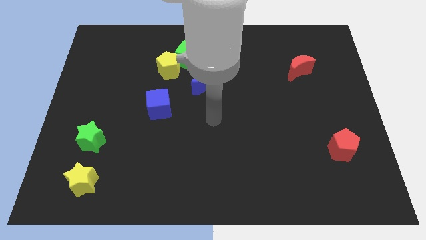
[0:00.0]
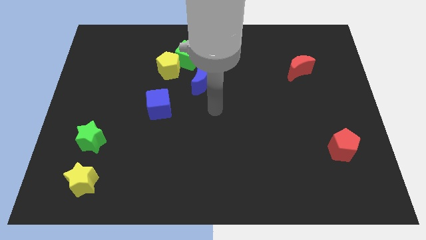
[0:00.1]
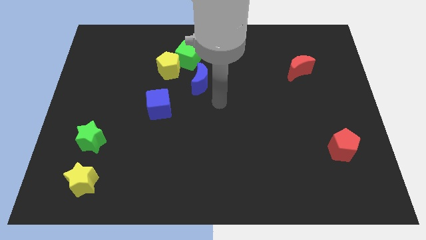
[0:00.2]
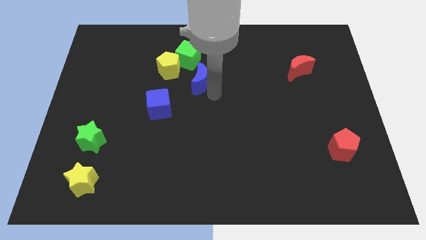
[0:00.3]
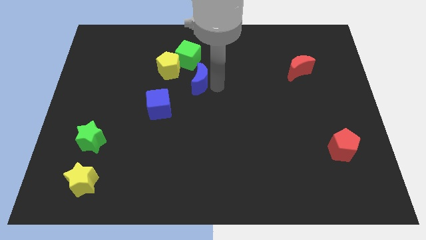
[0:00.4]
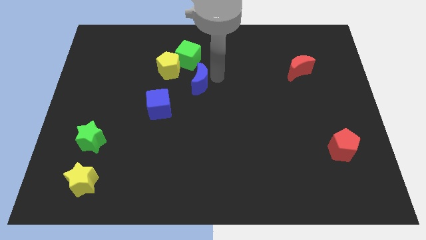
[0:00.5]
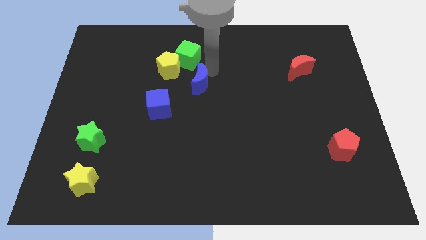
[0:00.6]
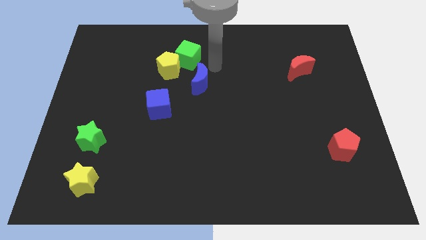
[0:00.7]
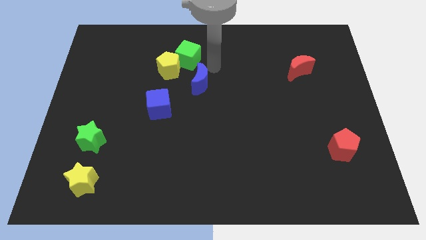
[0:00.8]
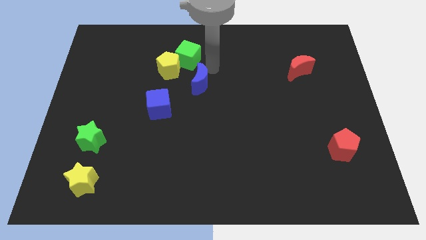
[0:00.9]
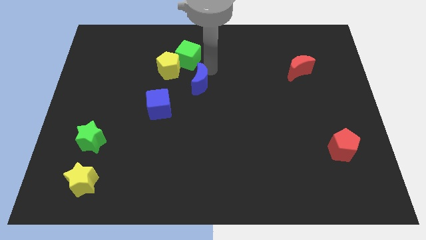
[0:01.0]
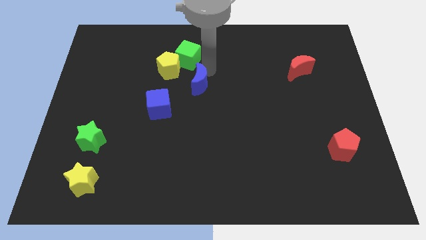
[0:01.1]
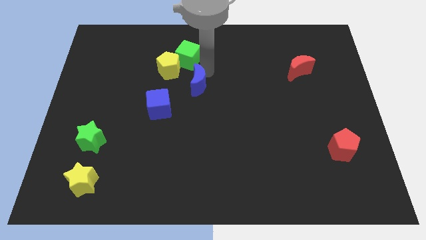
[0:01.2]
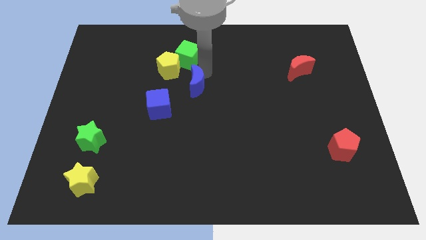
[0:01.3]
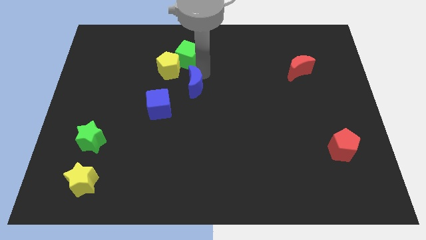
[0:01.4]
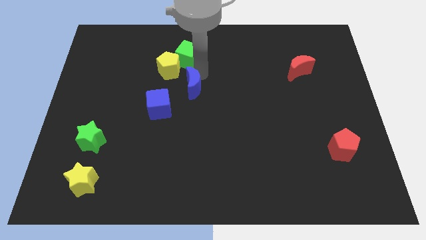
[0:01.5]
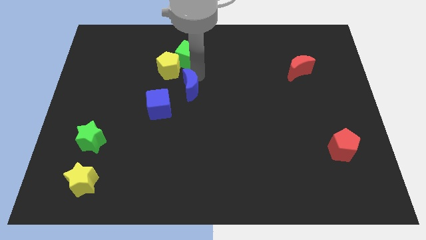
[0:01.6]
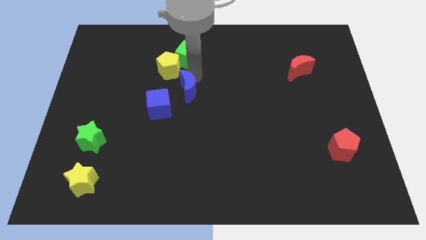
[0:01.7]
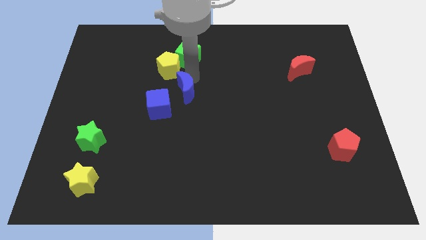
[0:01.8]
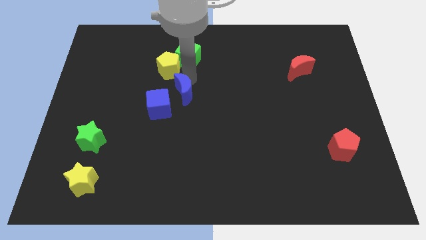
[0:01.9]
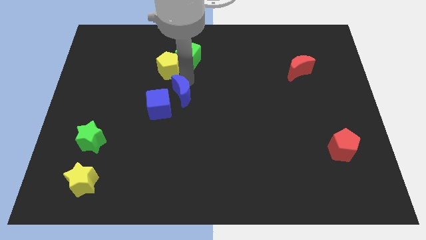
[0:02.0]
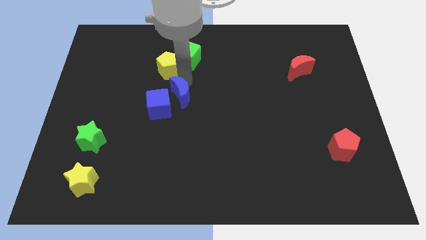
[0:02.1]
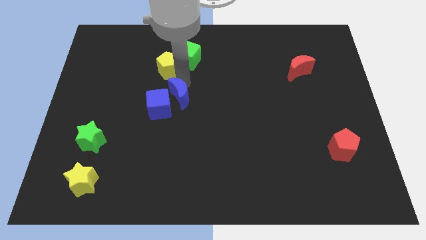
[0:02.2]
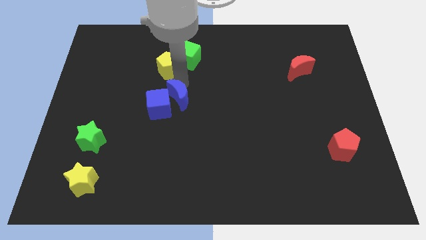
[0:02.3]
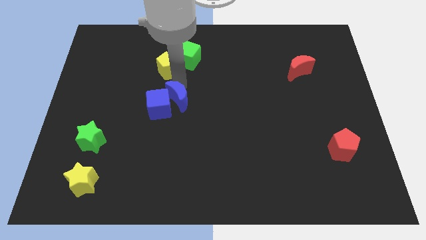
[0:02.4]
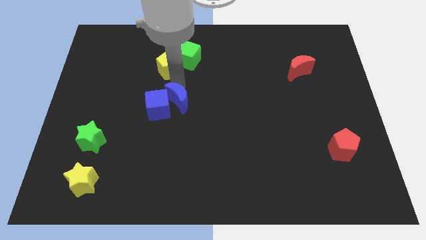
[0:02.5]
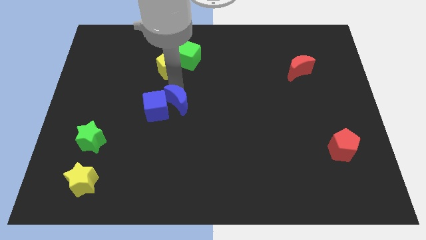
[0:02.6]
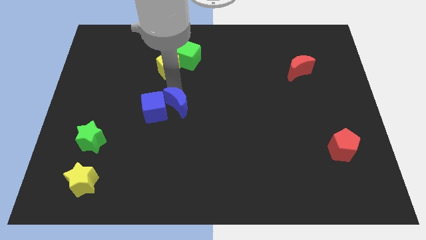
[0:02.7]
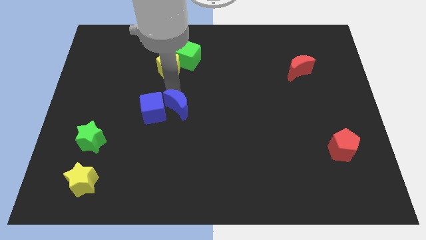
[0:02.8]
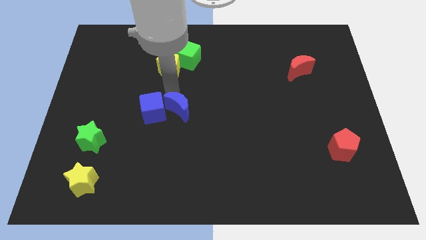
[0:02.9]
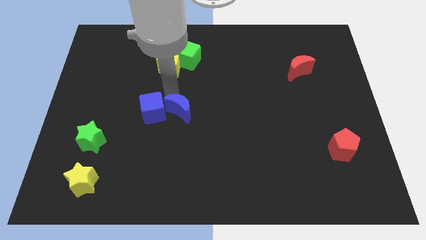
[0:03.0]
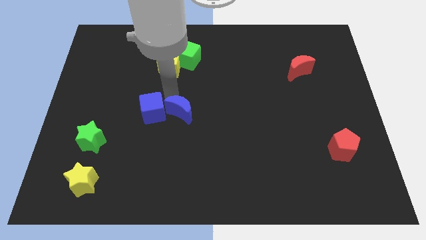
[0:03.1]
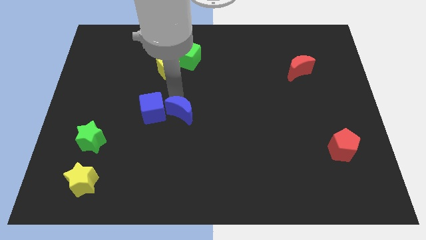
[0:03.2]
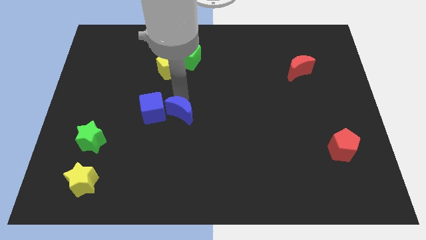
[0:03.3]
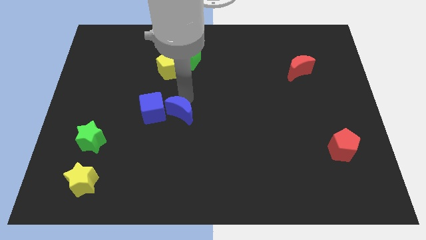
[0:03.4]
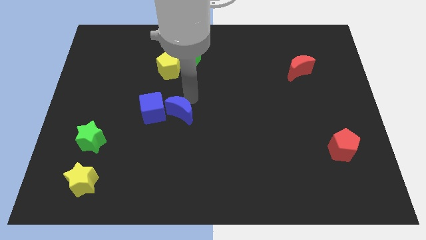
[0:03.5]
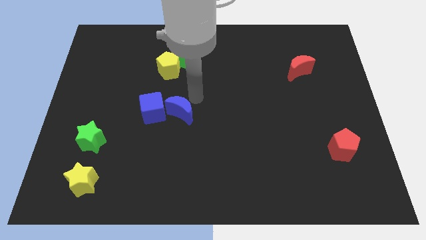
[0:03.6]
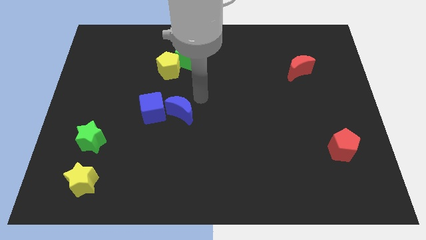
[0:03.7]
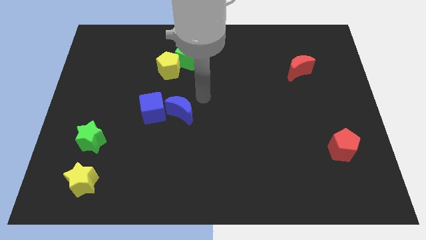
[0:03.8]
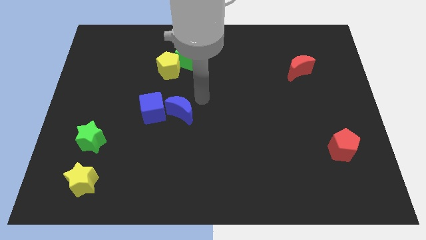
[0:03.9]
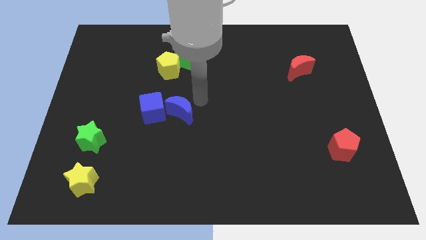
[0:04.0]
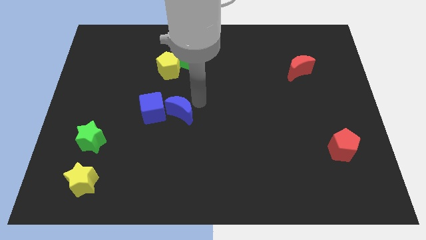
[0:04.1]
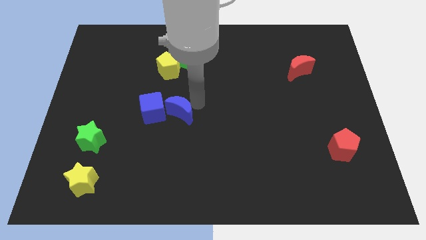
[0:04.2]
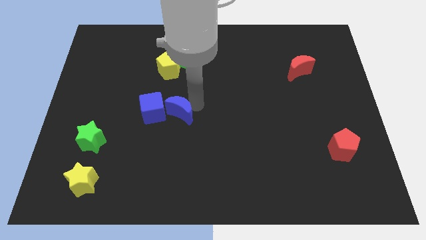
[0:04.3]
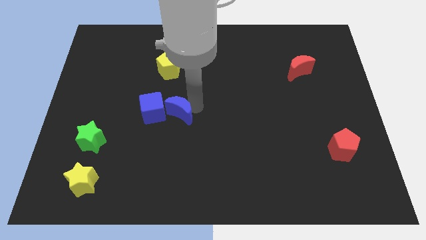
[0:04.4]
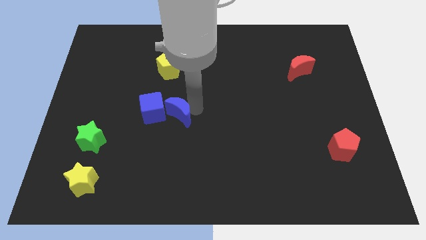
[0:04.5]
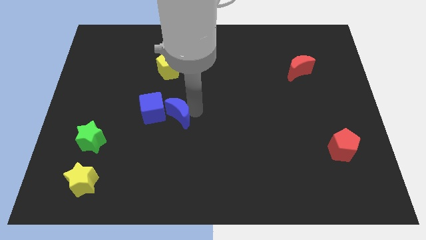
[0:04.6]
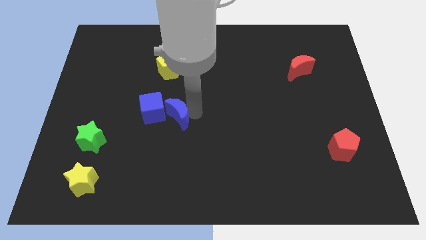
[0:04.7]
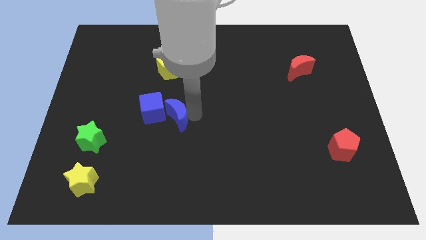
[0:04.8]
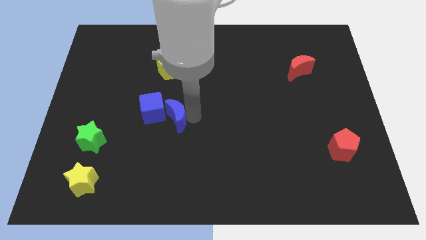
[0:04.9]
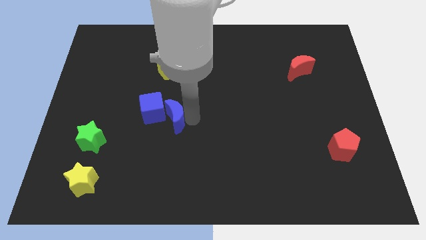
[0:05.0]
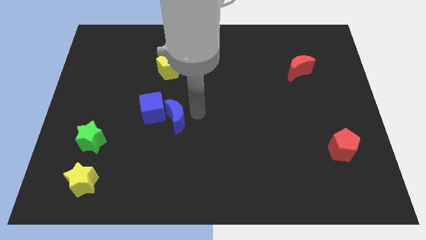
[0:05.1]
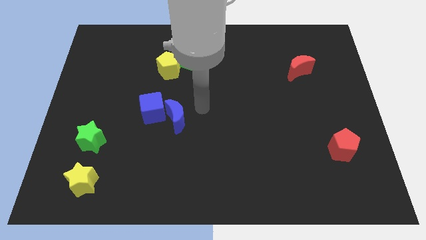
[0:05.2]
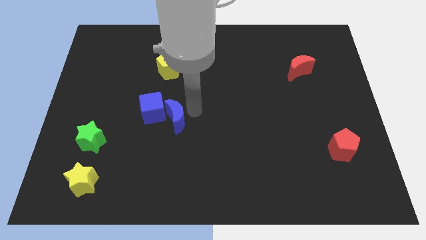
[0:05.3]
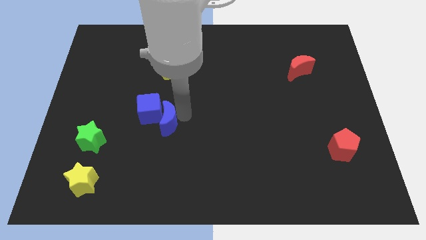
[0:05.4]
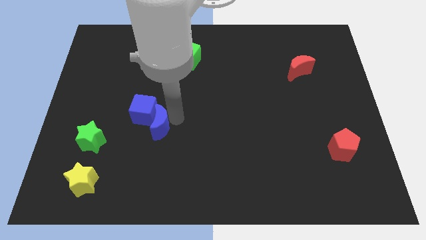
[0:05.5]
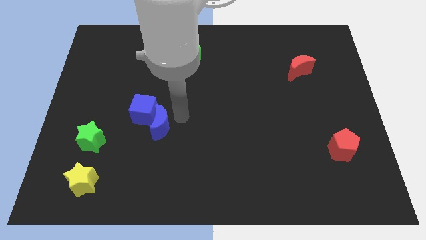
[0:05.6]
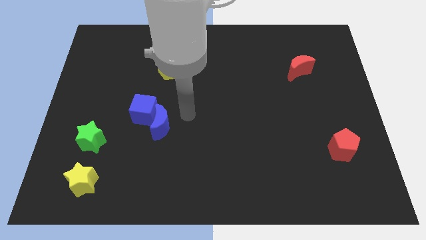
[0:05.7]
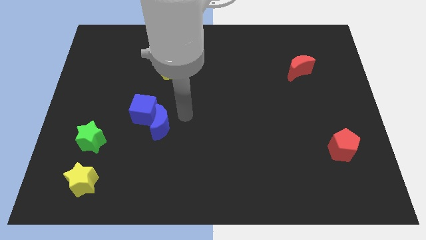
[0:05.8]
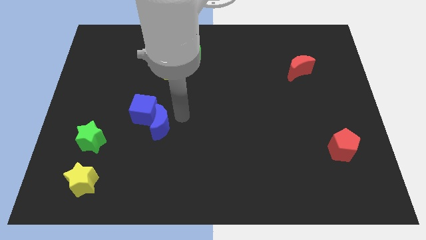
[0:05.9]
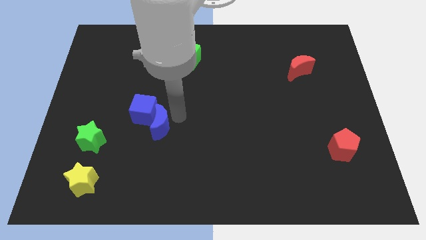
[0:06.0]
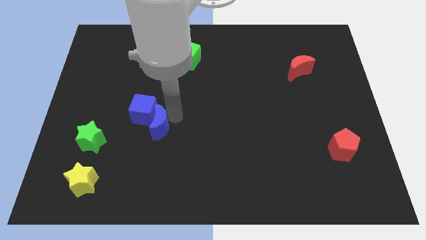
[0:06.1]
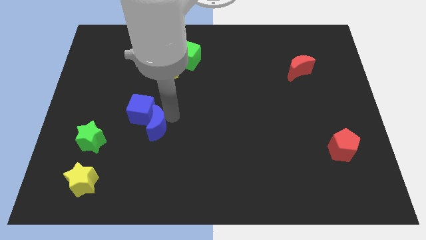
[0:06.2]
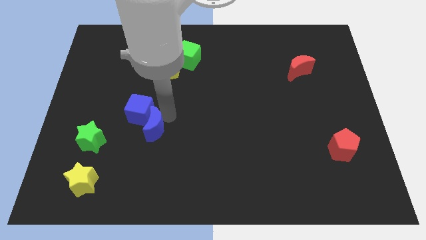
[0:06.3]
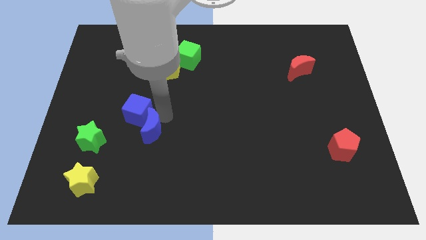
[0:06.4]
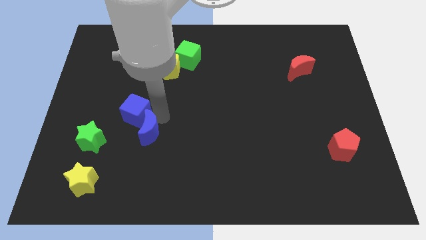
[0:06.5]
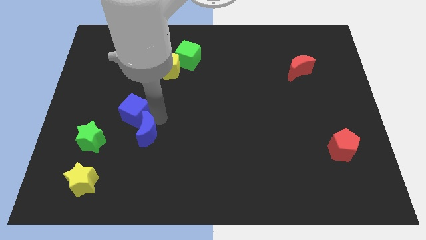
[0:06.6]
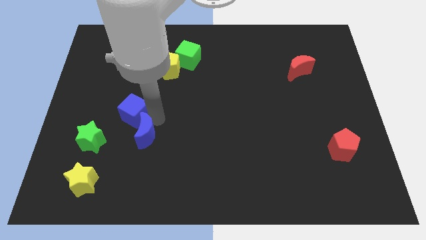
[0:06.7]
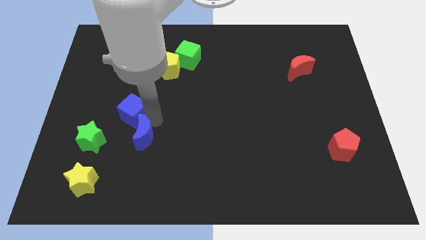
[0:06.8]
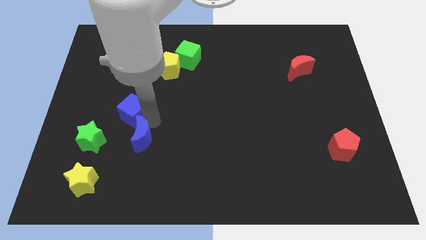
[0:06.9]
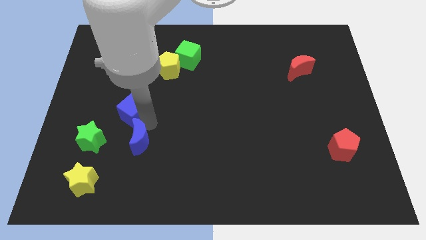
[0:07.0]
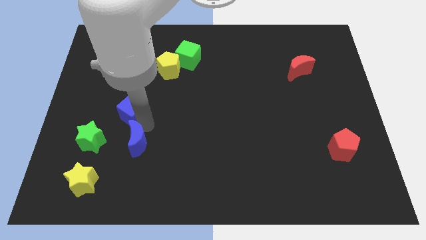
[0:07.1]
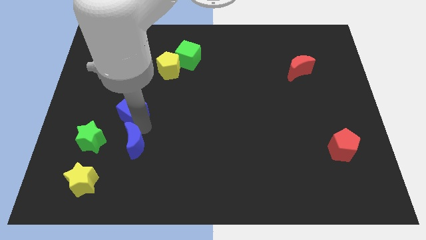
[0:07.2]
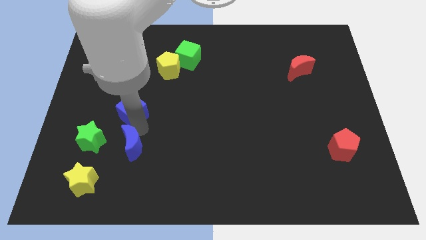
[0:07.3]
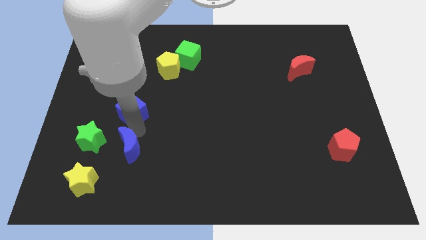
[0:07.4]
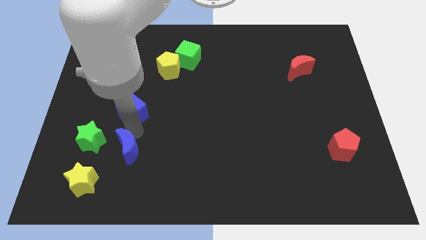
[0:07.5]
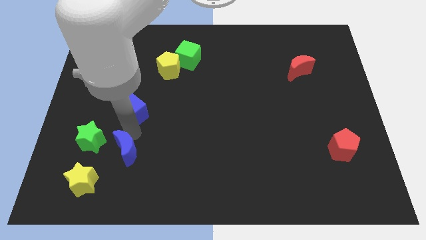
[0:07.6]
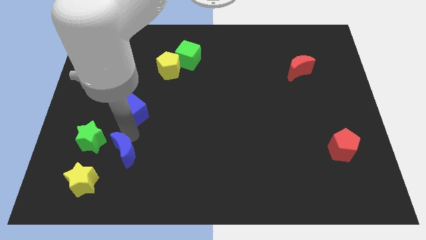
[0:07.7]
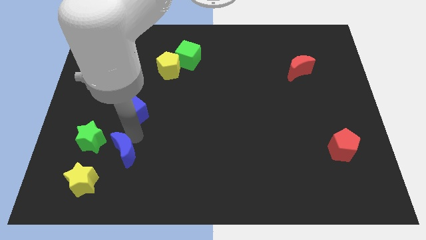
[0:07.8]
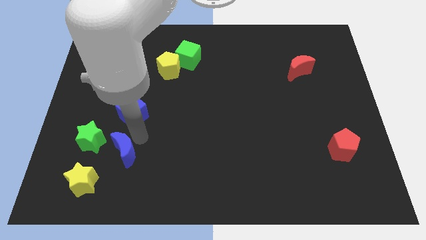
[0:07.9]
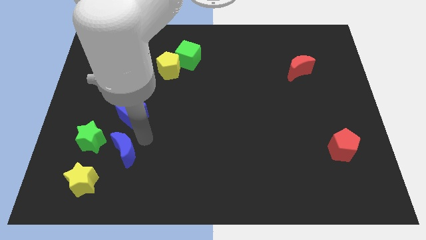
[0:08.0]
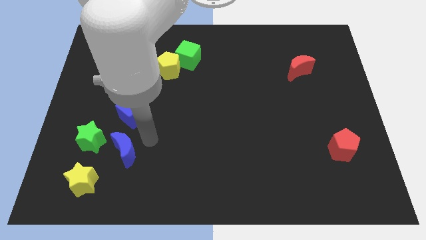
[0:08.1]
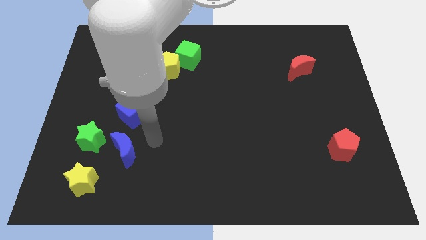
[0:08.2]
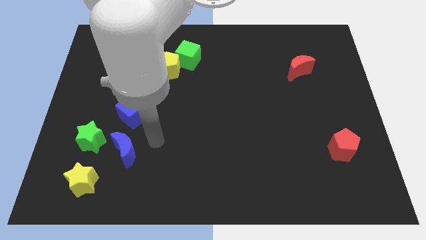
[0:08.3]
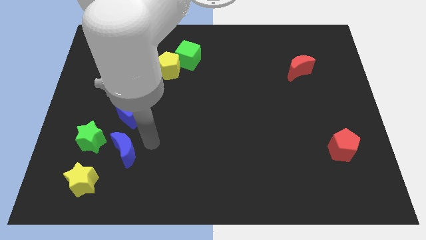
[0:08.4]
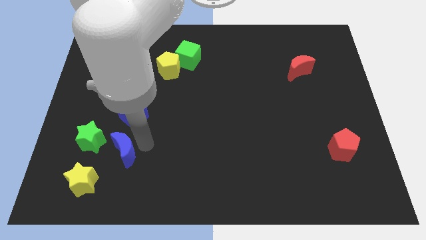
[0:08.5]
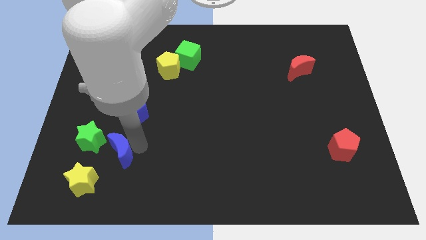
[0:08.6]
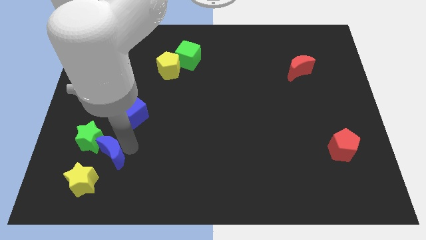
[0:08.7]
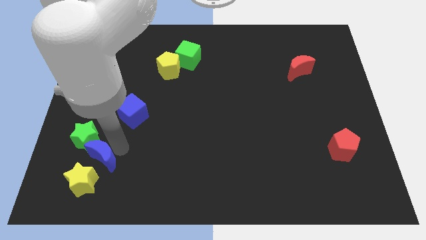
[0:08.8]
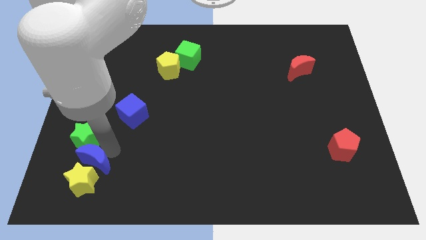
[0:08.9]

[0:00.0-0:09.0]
push the blue moon close to the yellow star
